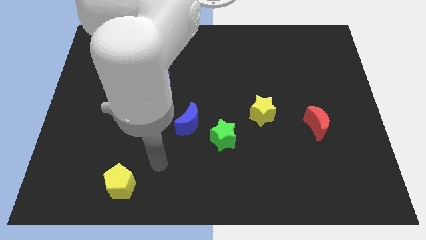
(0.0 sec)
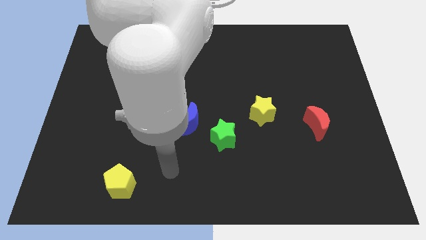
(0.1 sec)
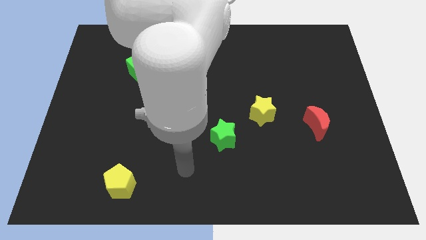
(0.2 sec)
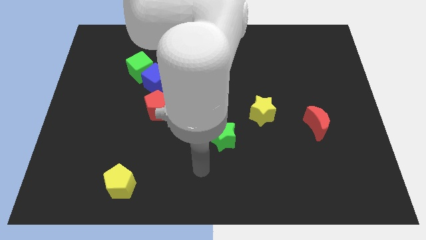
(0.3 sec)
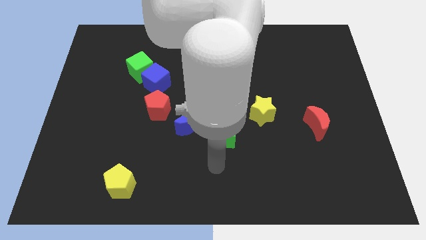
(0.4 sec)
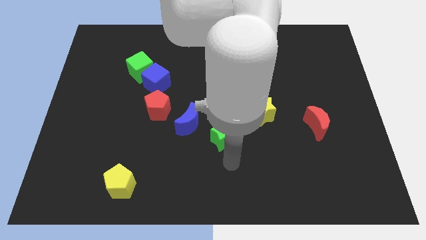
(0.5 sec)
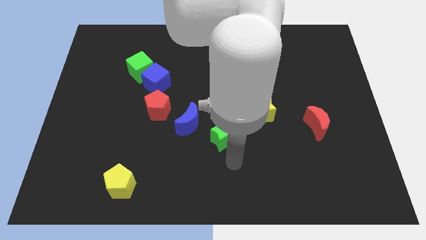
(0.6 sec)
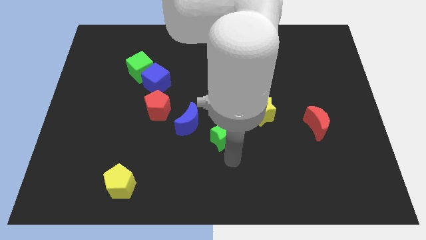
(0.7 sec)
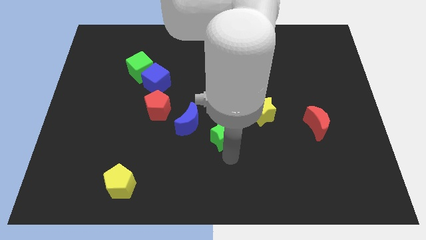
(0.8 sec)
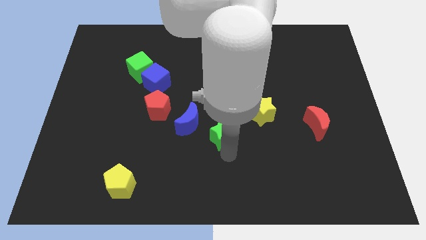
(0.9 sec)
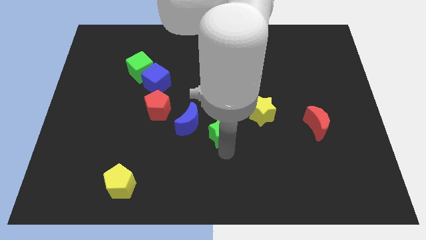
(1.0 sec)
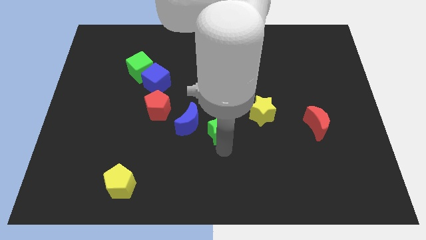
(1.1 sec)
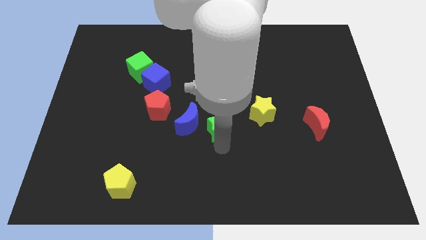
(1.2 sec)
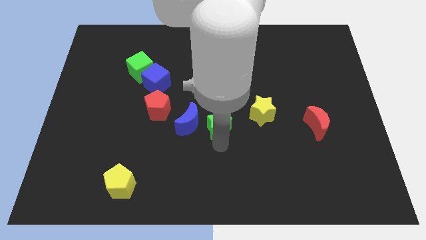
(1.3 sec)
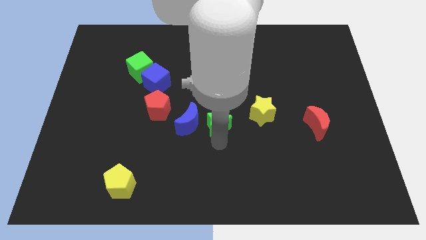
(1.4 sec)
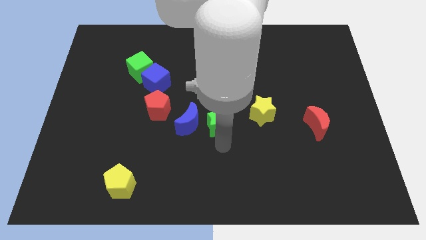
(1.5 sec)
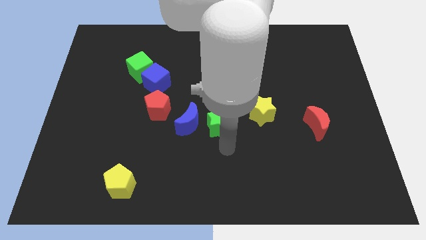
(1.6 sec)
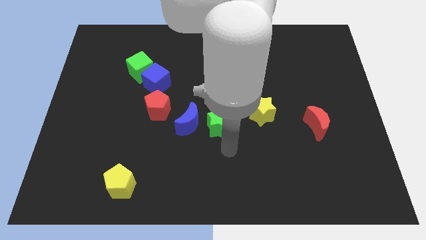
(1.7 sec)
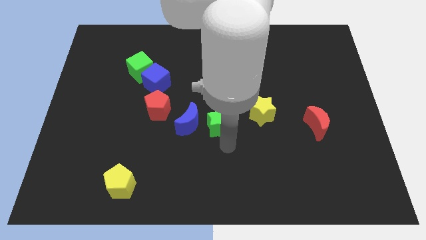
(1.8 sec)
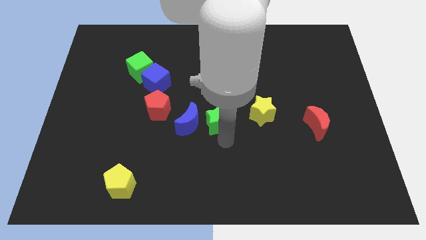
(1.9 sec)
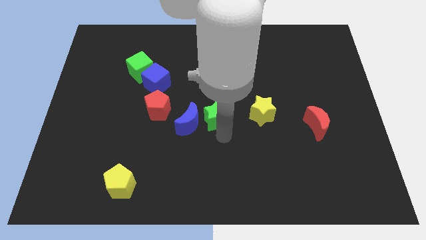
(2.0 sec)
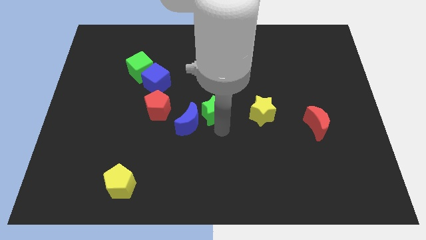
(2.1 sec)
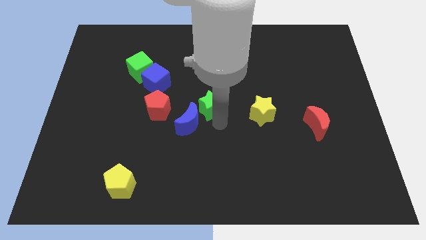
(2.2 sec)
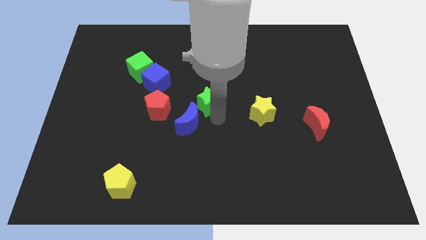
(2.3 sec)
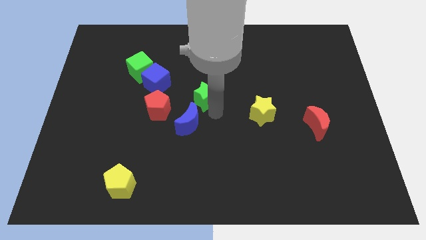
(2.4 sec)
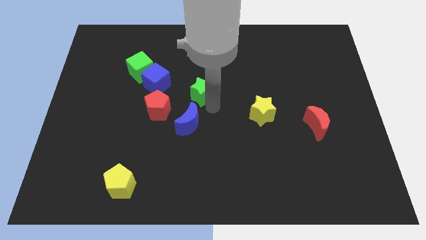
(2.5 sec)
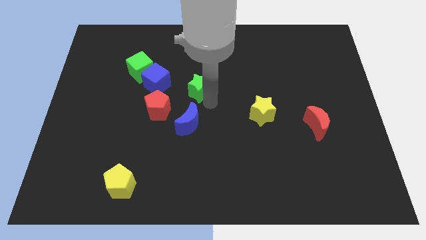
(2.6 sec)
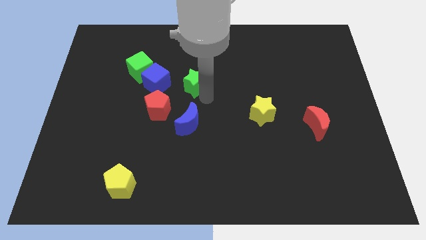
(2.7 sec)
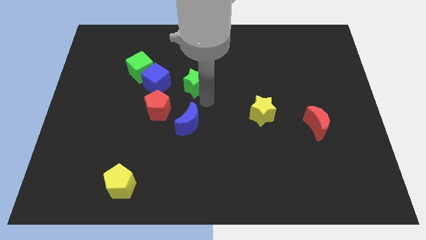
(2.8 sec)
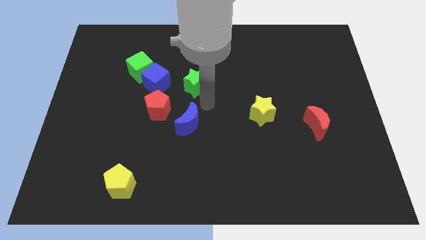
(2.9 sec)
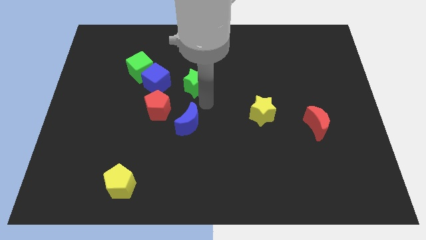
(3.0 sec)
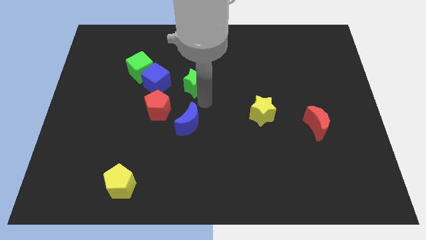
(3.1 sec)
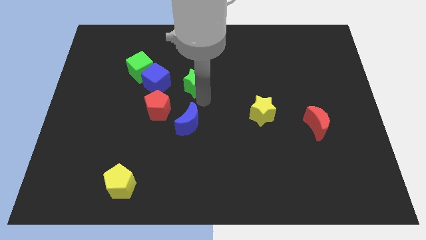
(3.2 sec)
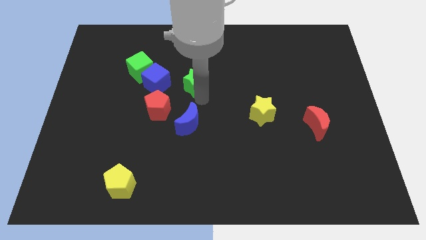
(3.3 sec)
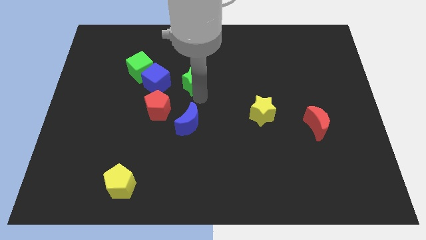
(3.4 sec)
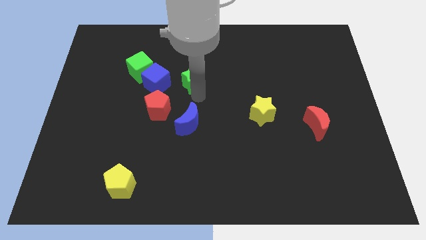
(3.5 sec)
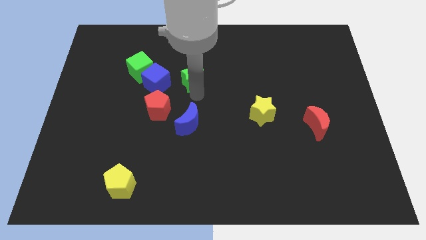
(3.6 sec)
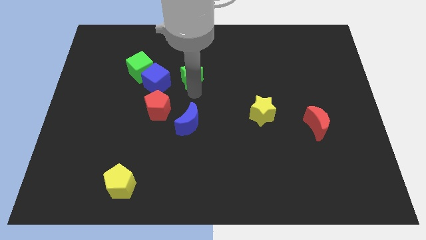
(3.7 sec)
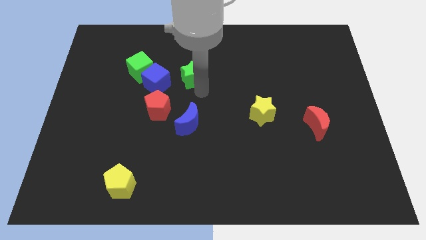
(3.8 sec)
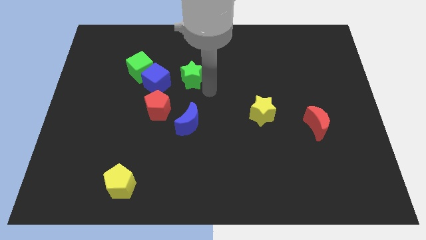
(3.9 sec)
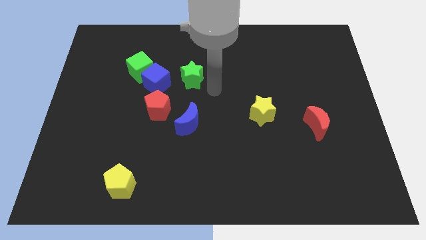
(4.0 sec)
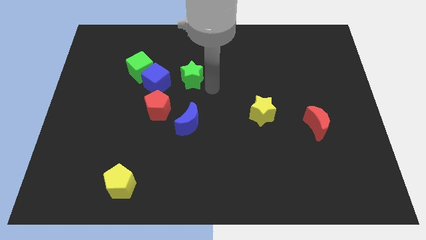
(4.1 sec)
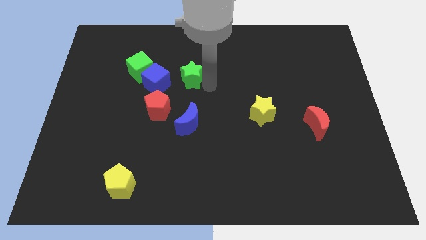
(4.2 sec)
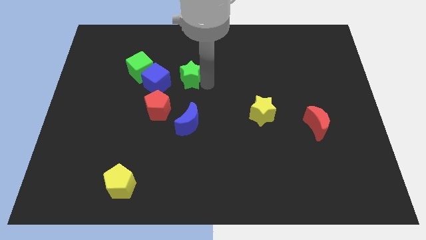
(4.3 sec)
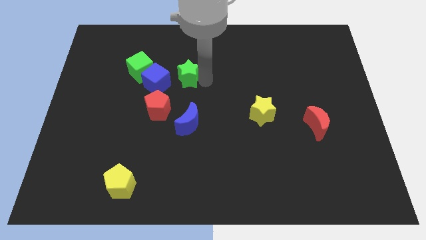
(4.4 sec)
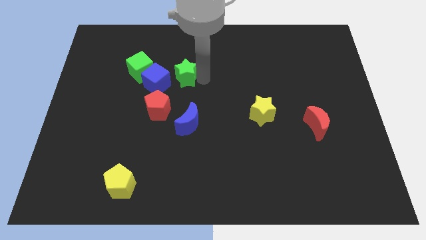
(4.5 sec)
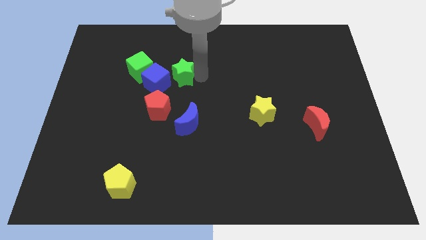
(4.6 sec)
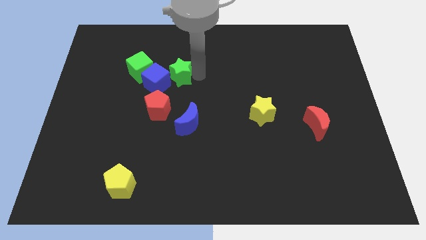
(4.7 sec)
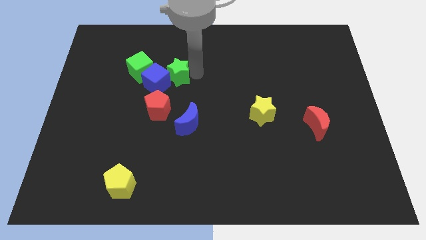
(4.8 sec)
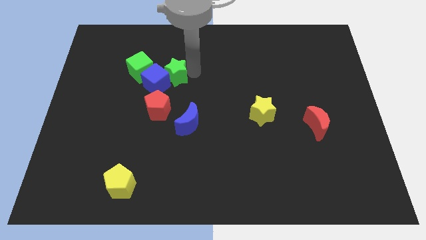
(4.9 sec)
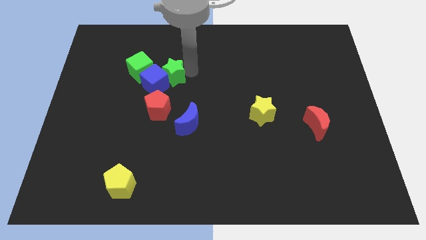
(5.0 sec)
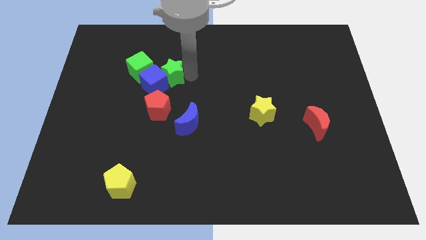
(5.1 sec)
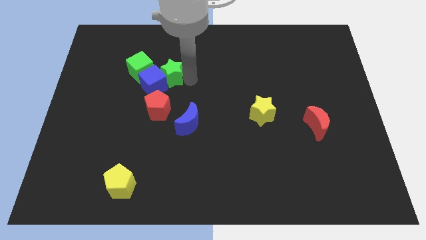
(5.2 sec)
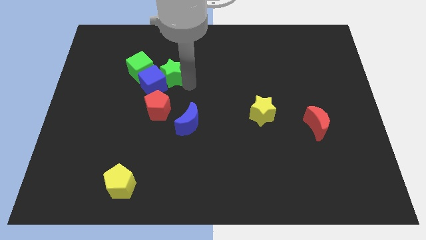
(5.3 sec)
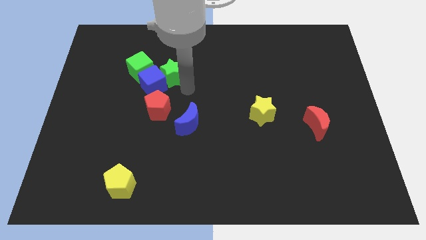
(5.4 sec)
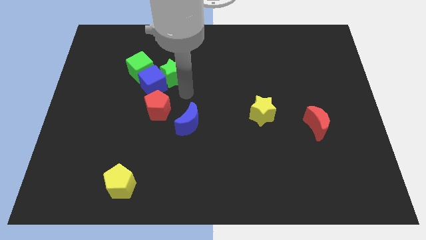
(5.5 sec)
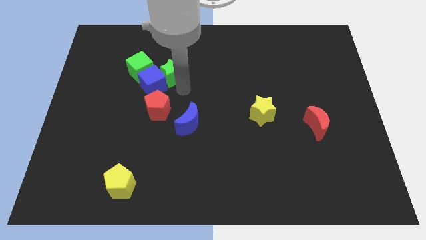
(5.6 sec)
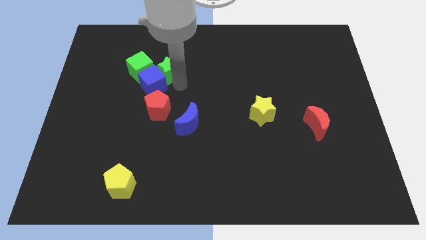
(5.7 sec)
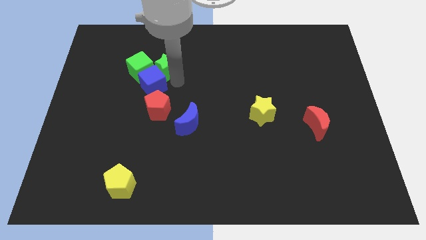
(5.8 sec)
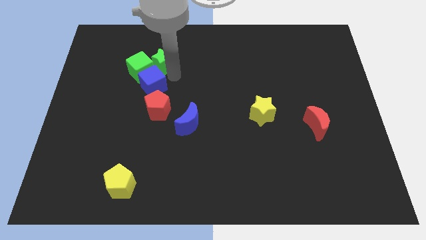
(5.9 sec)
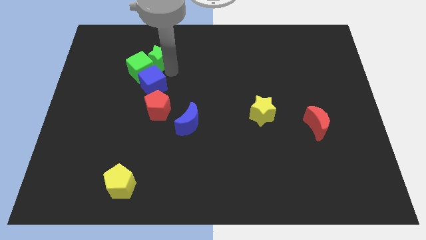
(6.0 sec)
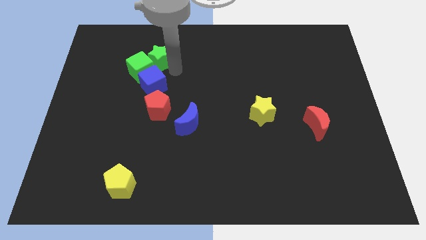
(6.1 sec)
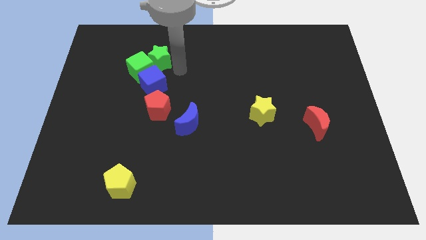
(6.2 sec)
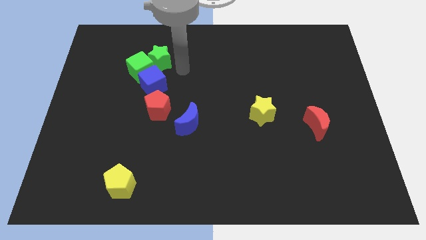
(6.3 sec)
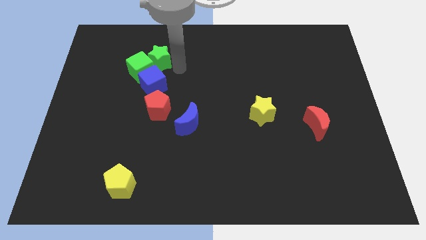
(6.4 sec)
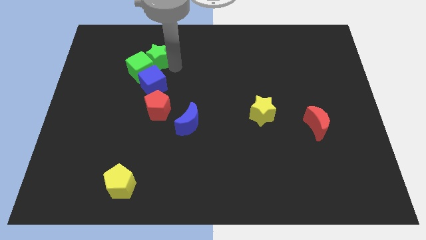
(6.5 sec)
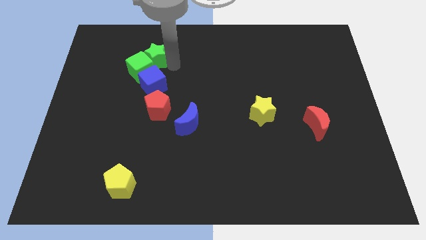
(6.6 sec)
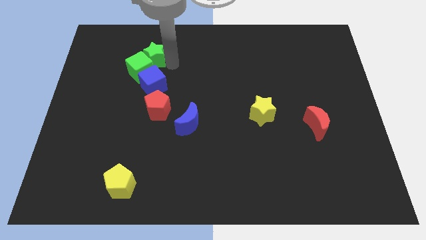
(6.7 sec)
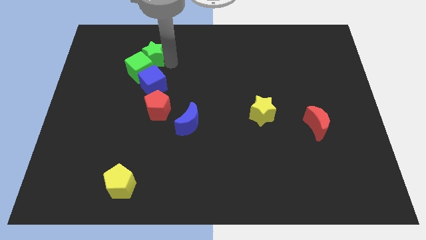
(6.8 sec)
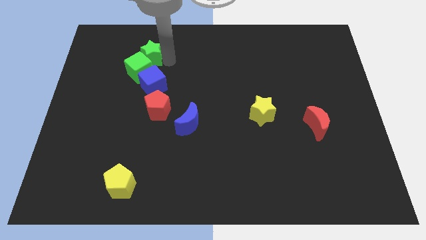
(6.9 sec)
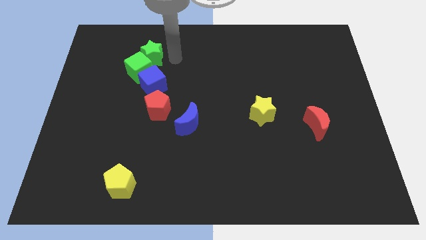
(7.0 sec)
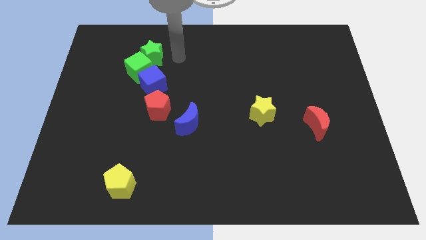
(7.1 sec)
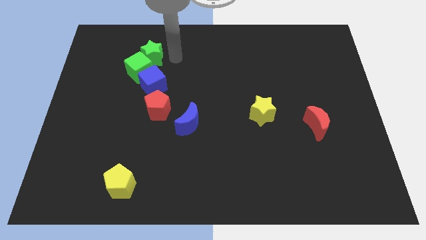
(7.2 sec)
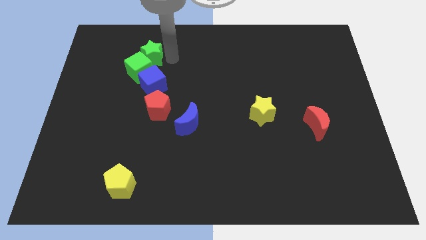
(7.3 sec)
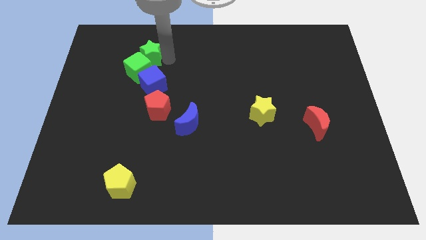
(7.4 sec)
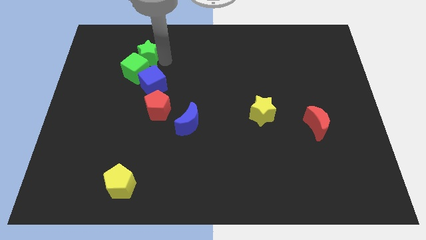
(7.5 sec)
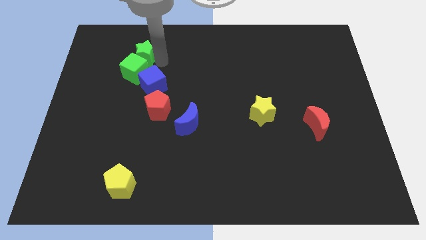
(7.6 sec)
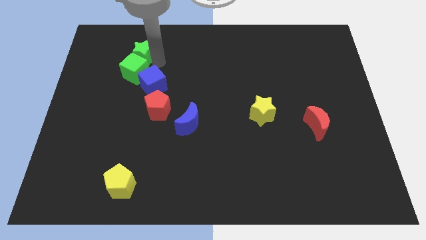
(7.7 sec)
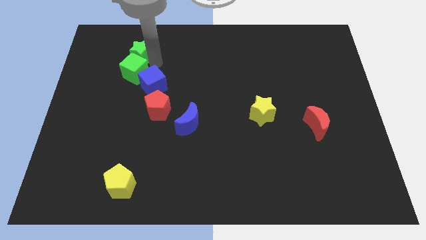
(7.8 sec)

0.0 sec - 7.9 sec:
push the green star to the top left side of the green cube
